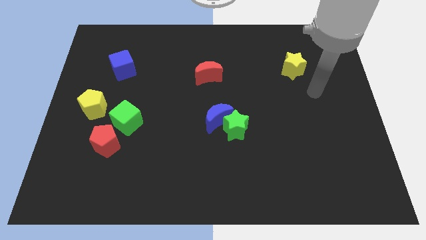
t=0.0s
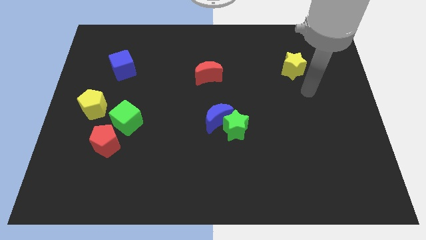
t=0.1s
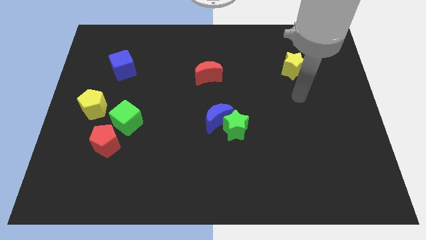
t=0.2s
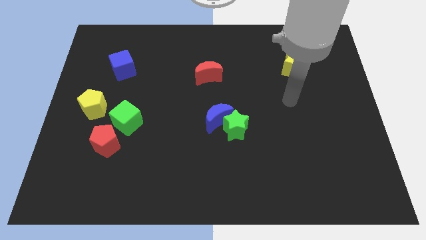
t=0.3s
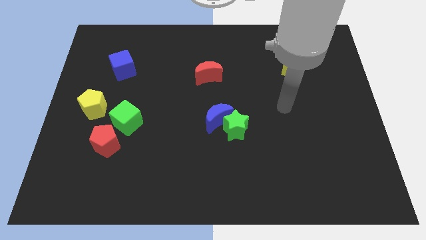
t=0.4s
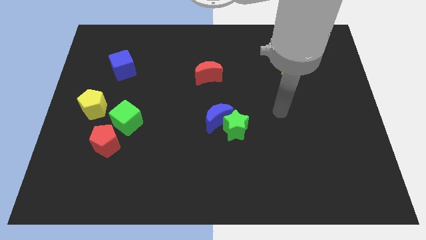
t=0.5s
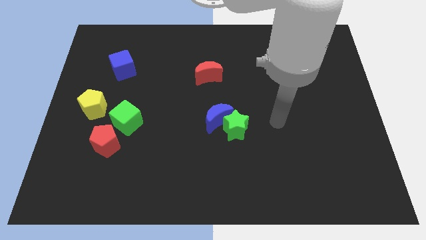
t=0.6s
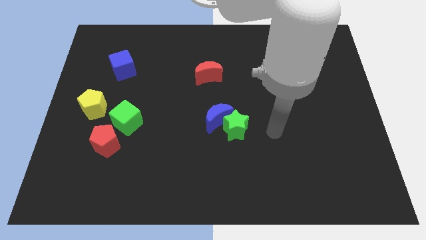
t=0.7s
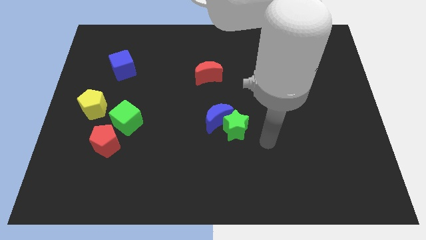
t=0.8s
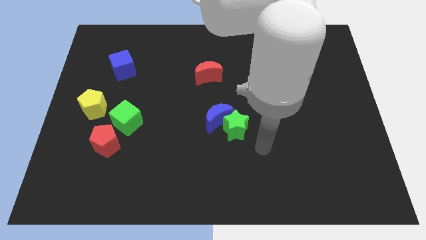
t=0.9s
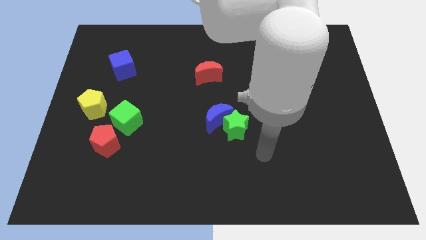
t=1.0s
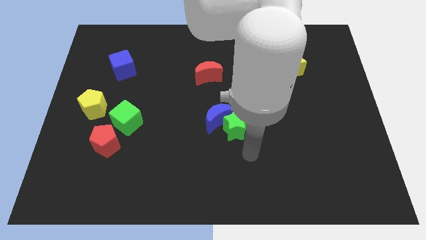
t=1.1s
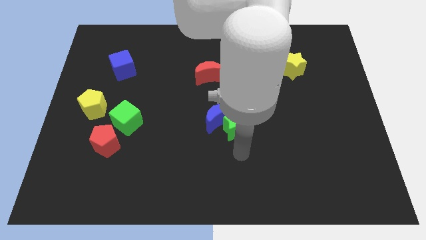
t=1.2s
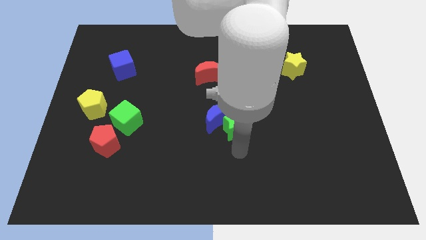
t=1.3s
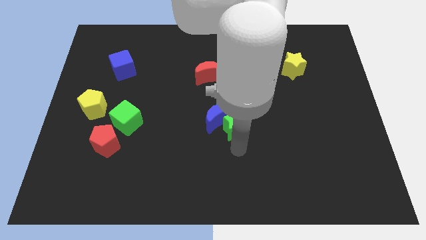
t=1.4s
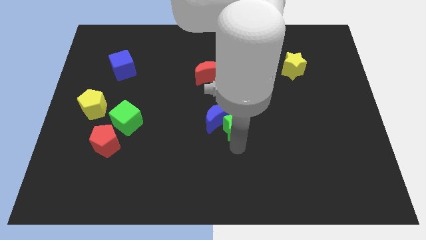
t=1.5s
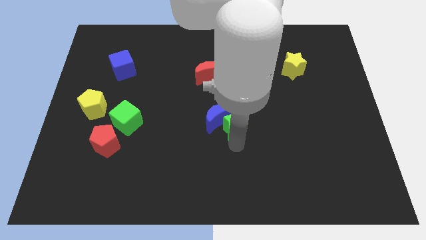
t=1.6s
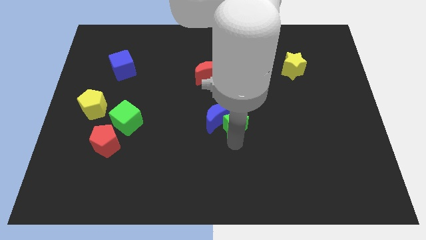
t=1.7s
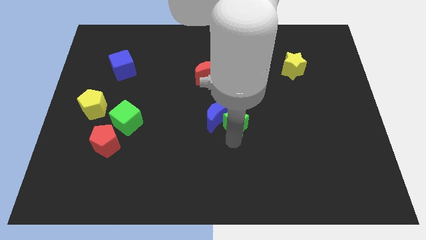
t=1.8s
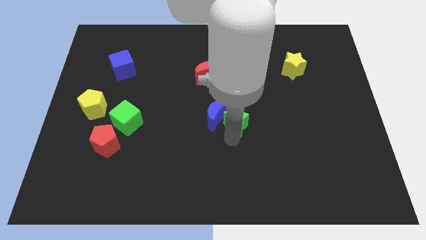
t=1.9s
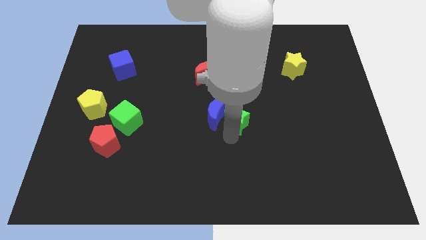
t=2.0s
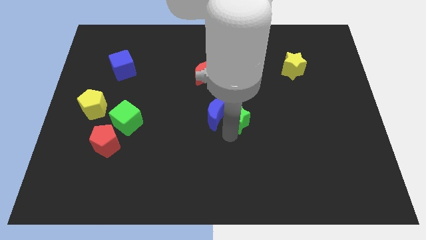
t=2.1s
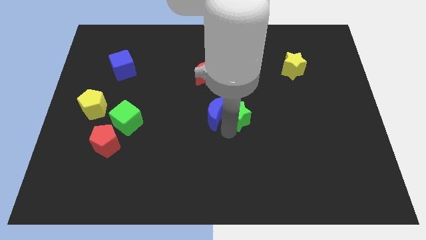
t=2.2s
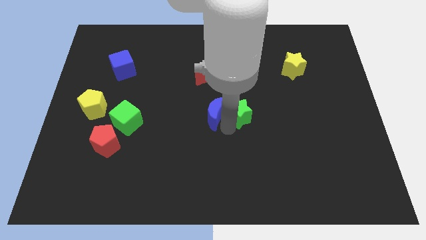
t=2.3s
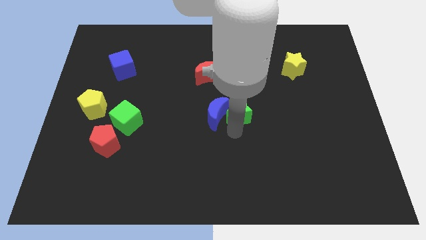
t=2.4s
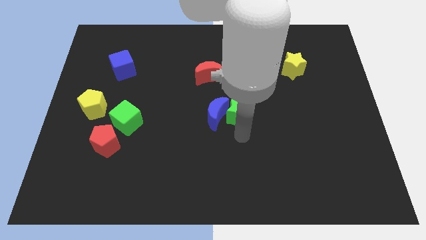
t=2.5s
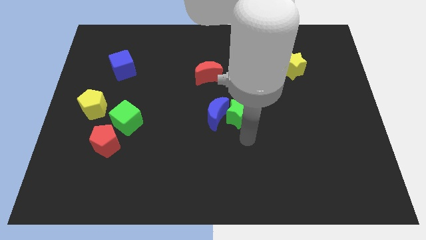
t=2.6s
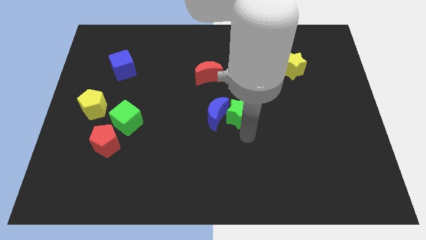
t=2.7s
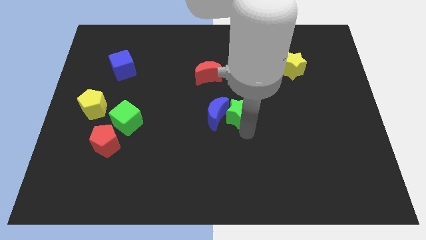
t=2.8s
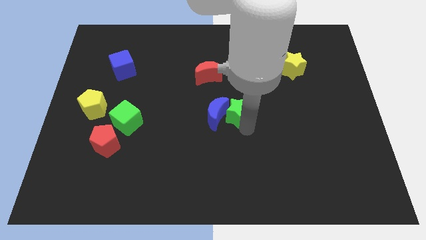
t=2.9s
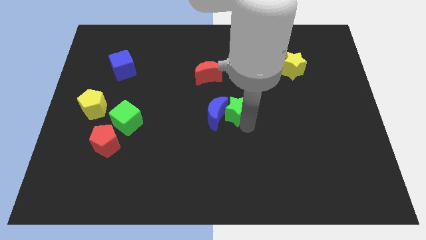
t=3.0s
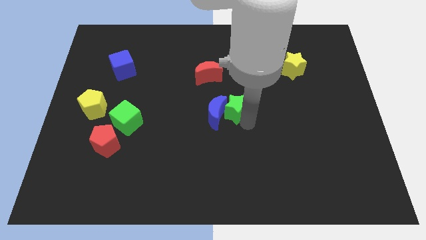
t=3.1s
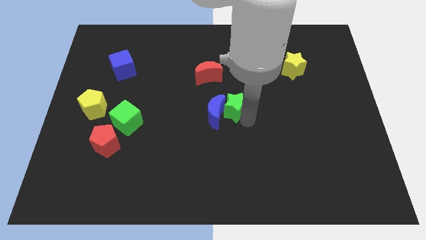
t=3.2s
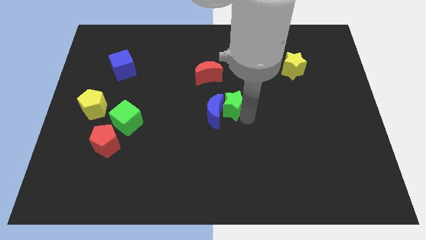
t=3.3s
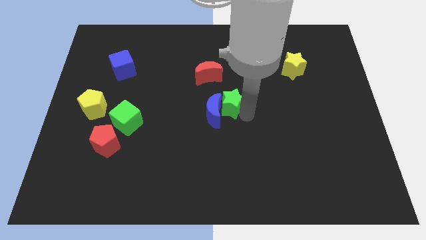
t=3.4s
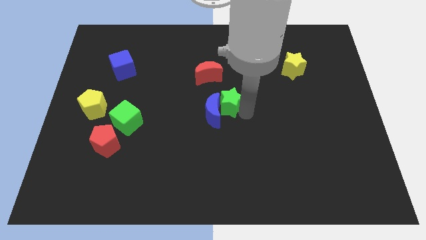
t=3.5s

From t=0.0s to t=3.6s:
move the green star a little bit upwards

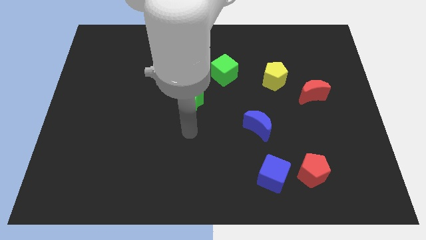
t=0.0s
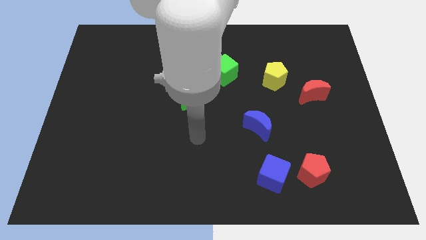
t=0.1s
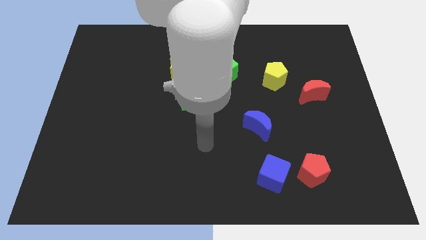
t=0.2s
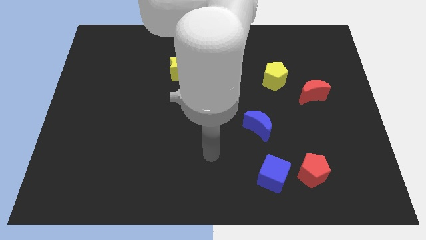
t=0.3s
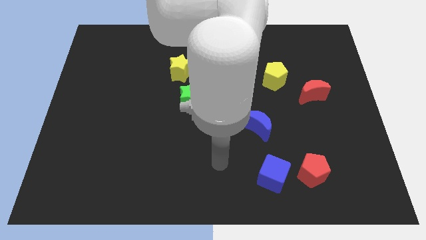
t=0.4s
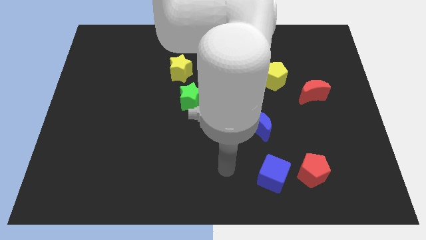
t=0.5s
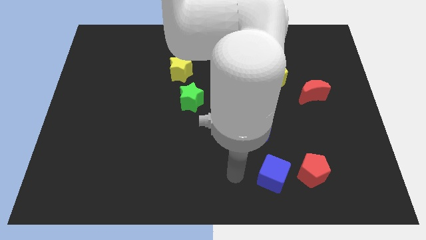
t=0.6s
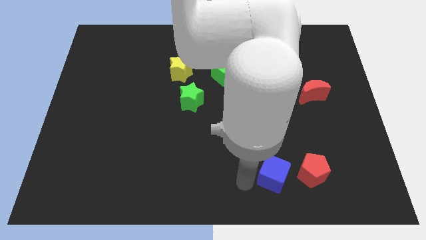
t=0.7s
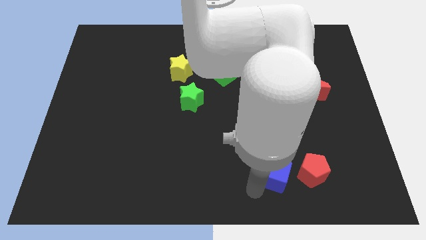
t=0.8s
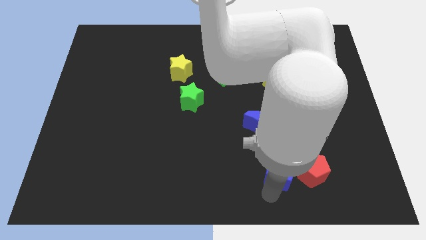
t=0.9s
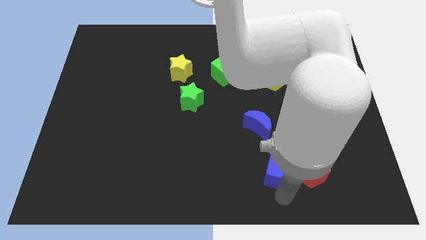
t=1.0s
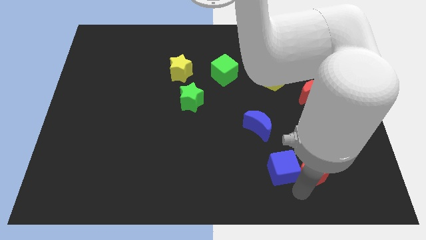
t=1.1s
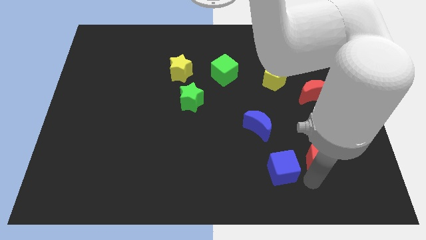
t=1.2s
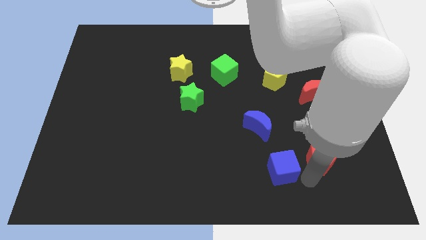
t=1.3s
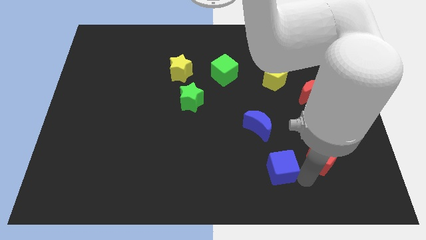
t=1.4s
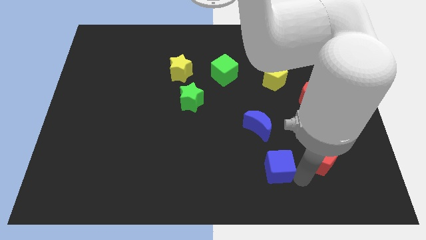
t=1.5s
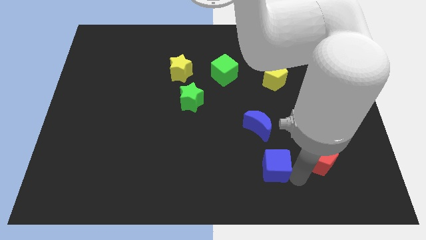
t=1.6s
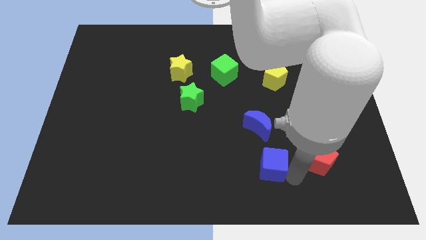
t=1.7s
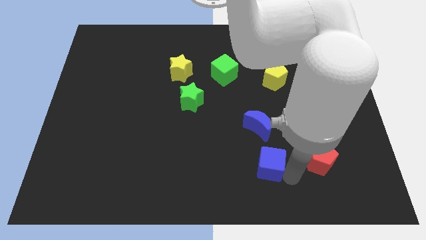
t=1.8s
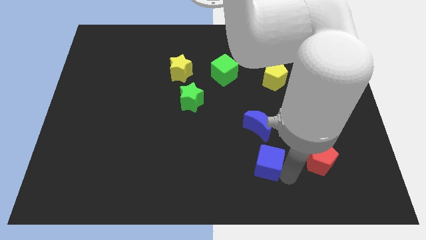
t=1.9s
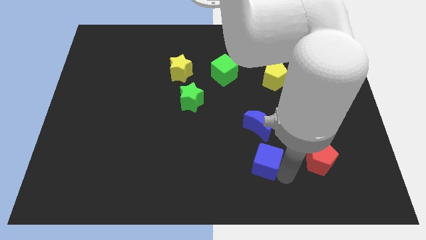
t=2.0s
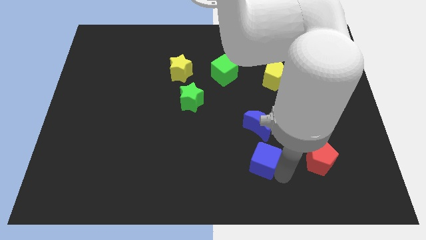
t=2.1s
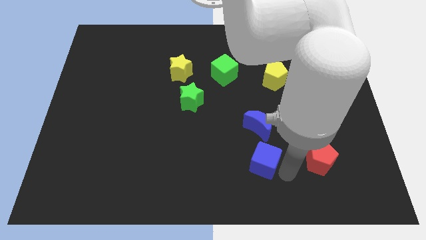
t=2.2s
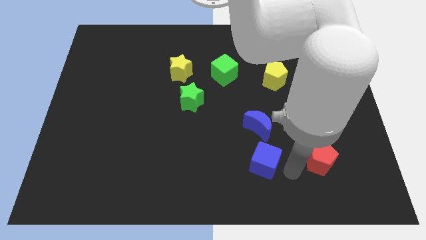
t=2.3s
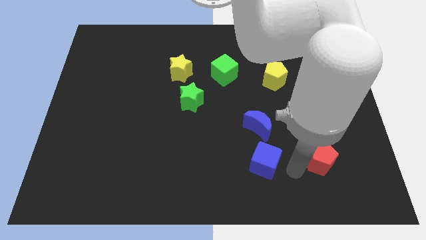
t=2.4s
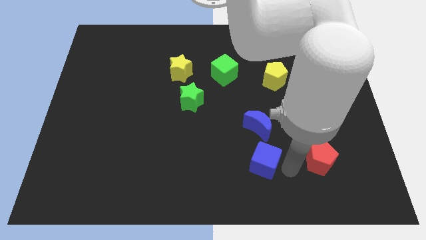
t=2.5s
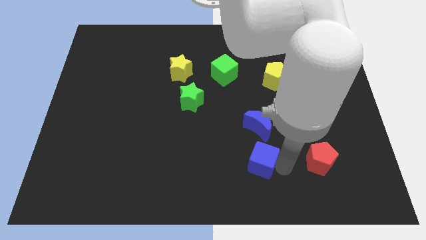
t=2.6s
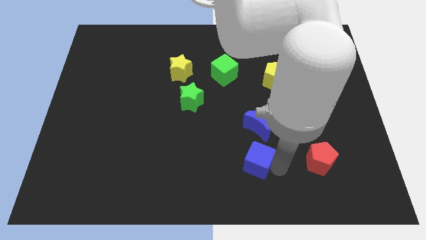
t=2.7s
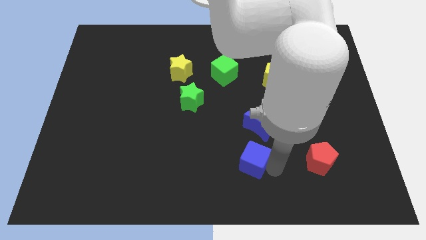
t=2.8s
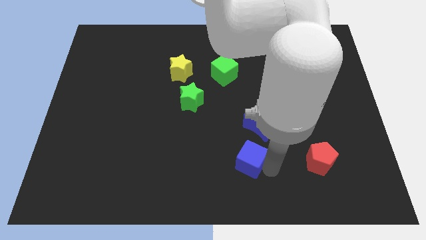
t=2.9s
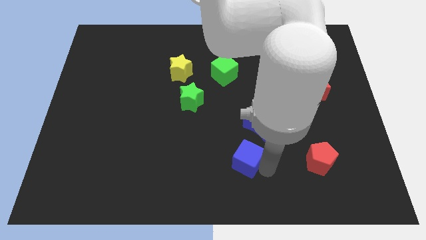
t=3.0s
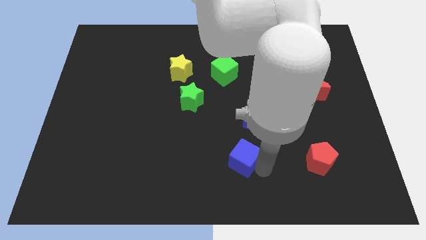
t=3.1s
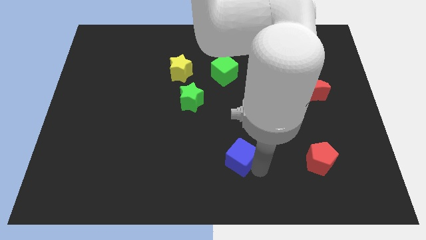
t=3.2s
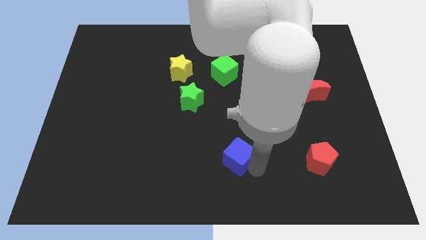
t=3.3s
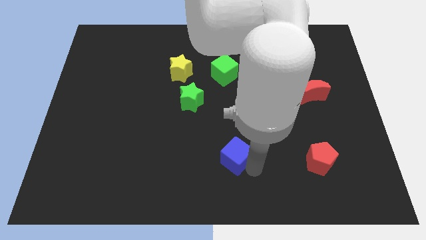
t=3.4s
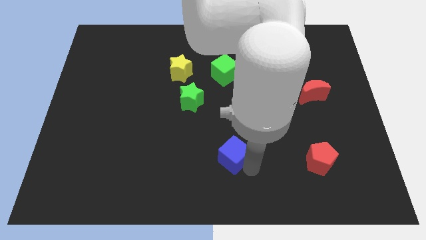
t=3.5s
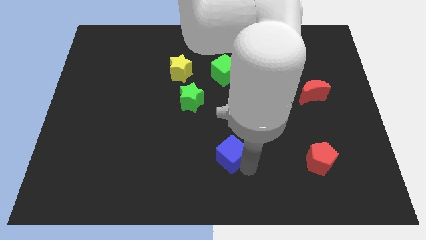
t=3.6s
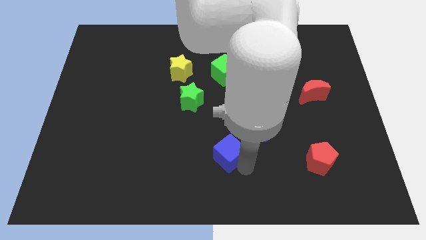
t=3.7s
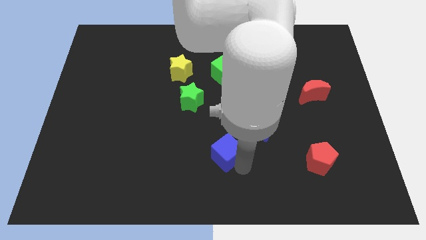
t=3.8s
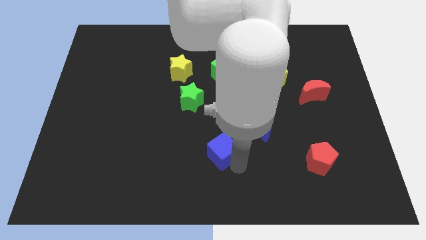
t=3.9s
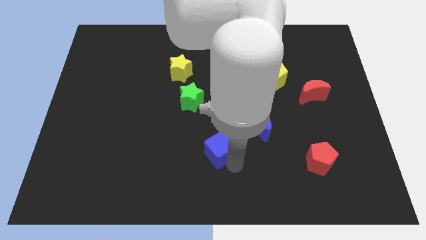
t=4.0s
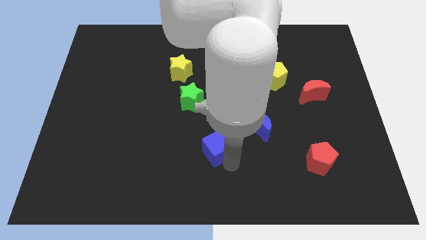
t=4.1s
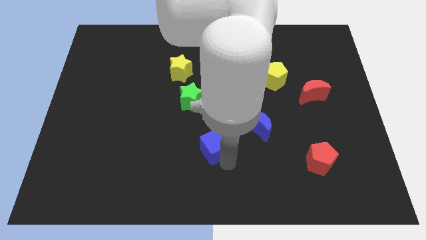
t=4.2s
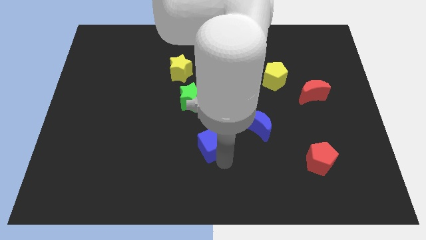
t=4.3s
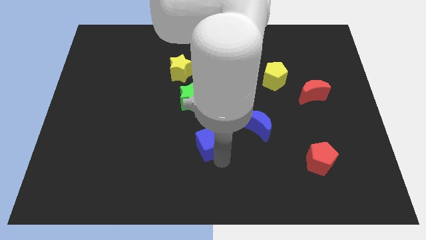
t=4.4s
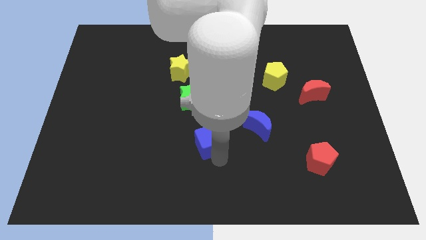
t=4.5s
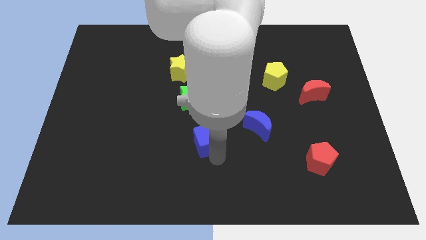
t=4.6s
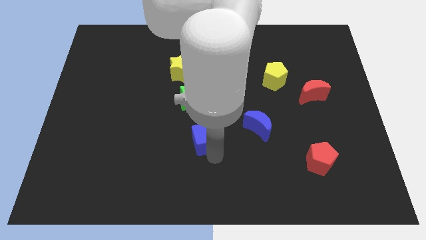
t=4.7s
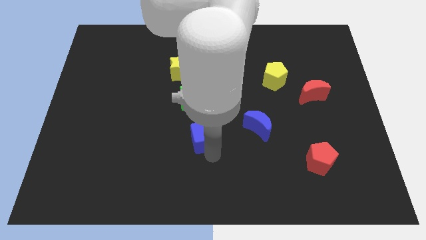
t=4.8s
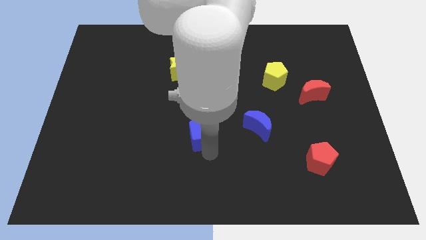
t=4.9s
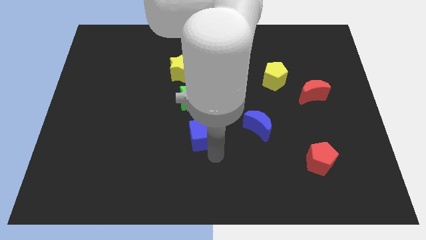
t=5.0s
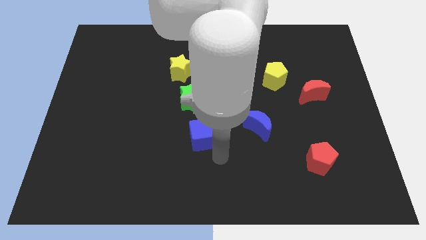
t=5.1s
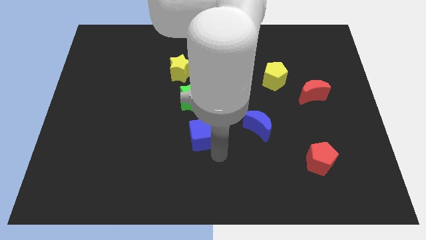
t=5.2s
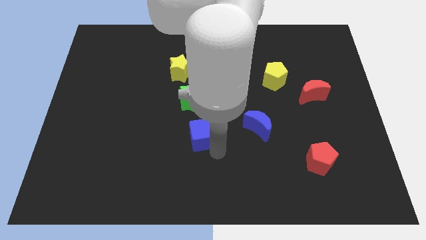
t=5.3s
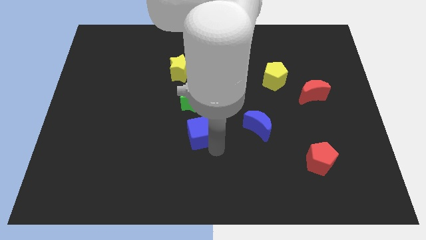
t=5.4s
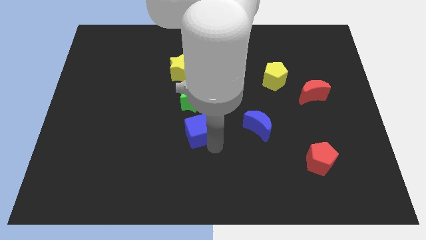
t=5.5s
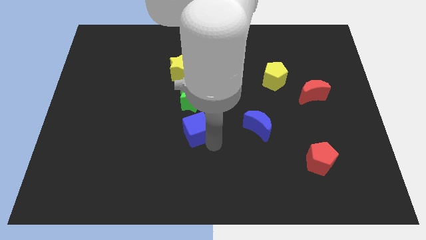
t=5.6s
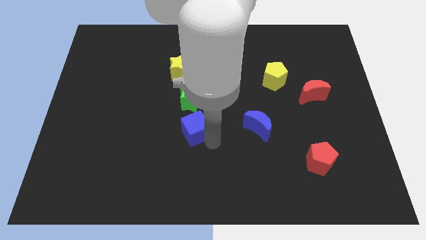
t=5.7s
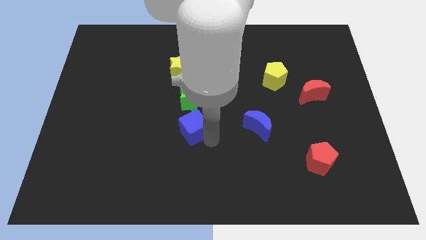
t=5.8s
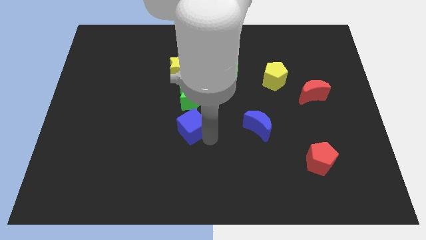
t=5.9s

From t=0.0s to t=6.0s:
move the blue cube upwards and to the left diagonally
